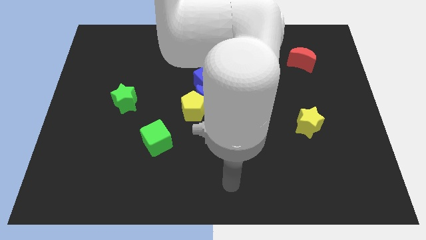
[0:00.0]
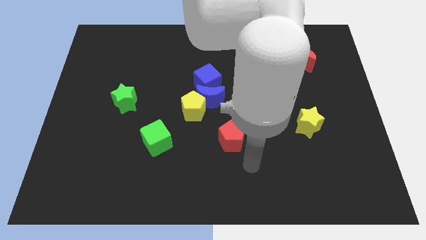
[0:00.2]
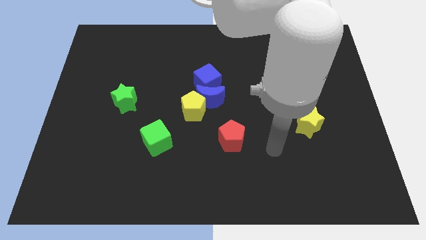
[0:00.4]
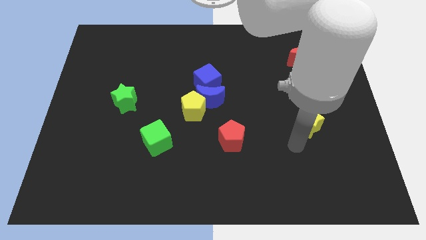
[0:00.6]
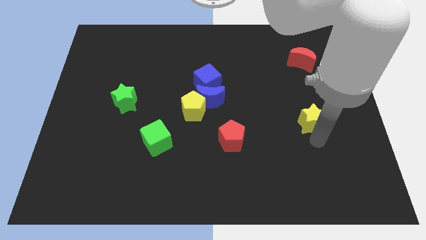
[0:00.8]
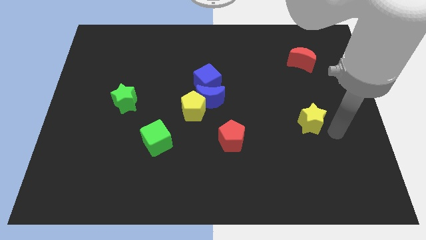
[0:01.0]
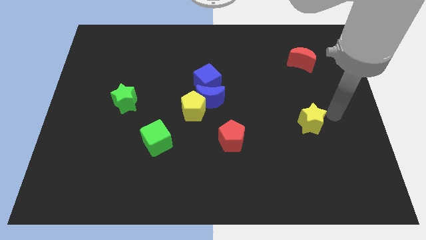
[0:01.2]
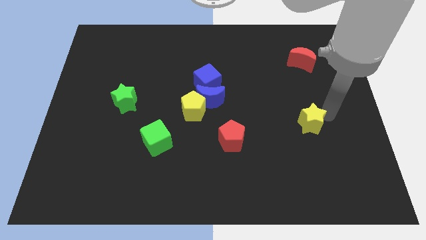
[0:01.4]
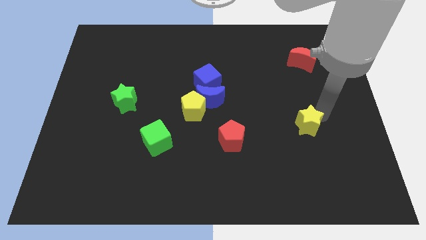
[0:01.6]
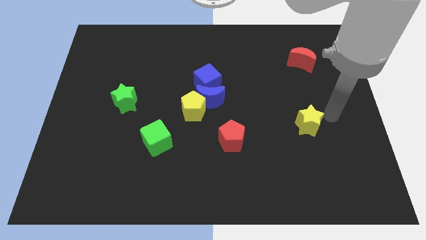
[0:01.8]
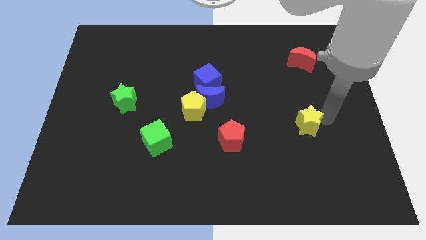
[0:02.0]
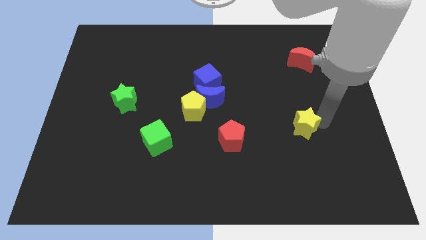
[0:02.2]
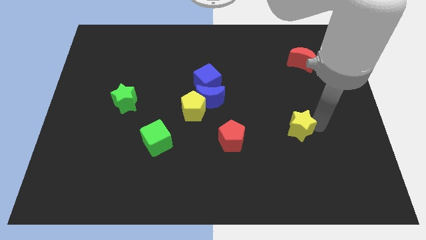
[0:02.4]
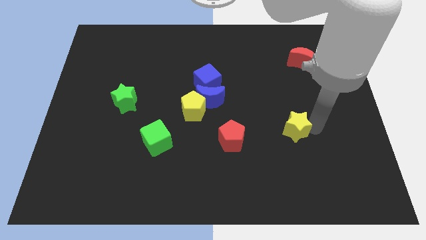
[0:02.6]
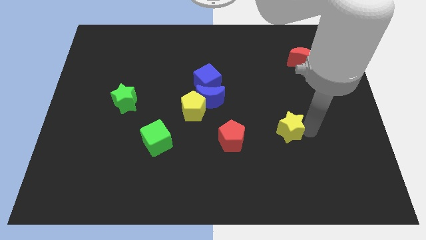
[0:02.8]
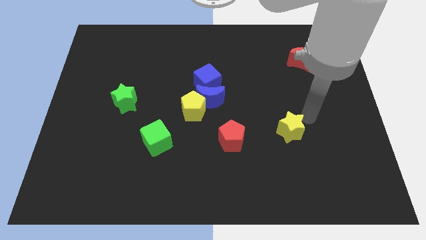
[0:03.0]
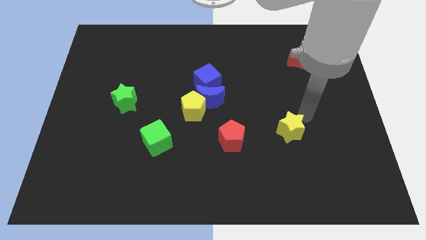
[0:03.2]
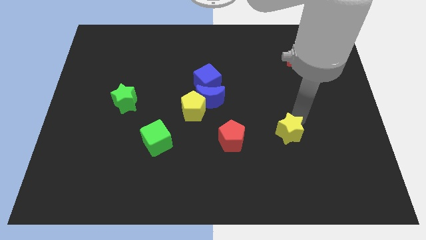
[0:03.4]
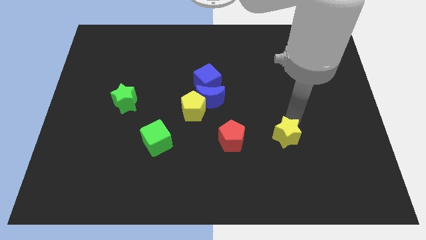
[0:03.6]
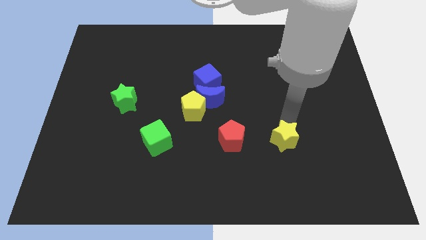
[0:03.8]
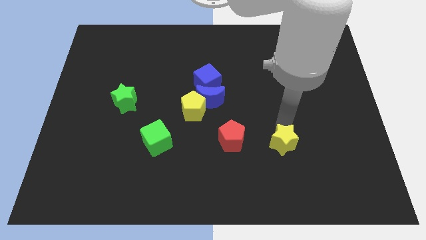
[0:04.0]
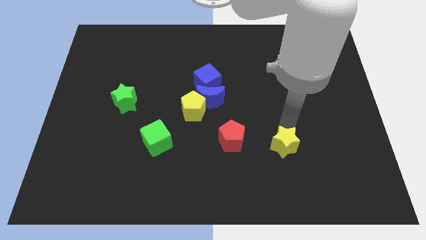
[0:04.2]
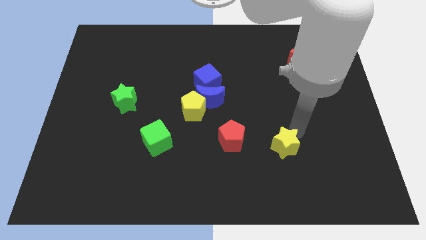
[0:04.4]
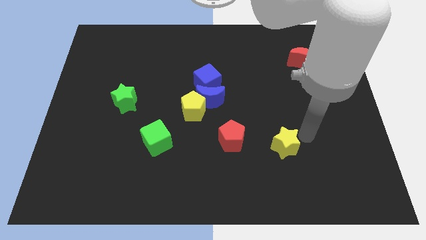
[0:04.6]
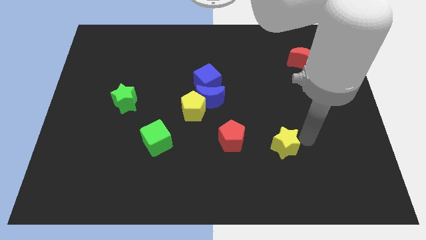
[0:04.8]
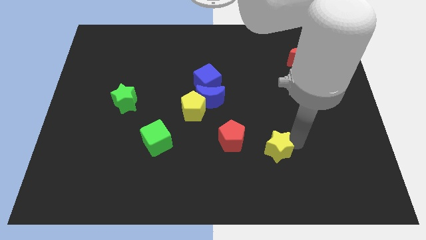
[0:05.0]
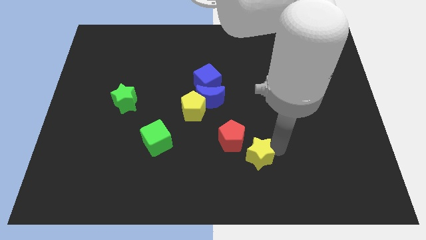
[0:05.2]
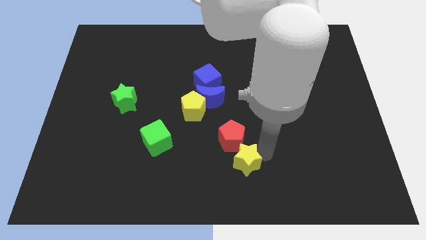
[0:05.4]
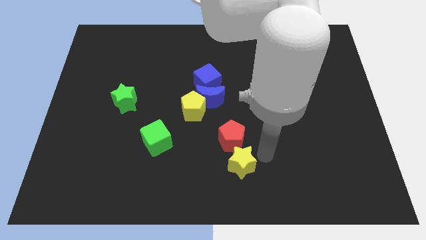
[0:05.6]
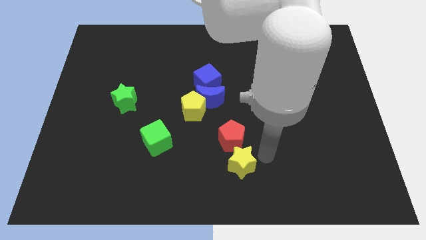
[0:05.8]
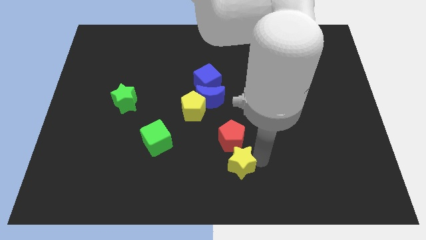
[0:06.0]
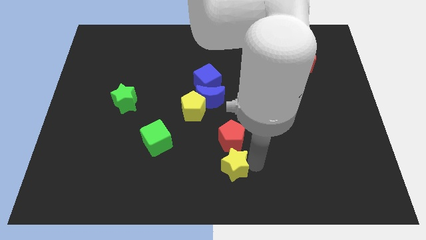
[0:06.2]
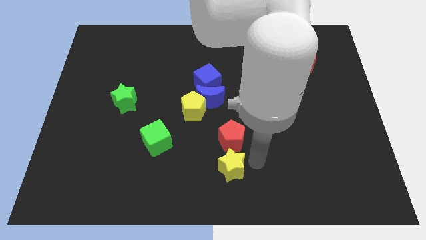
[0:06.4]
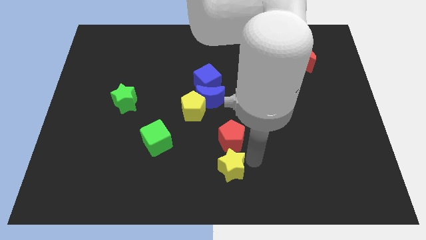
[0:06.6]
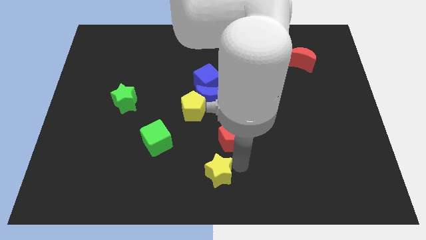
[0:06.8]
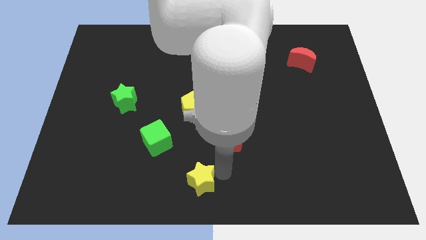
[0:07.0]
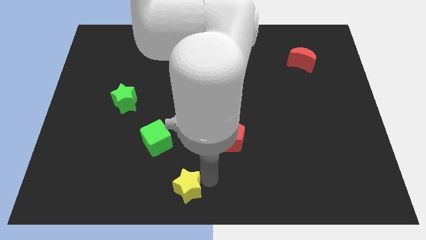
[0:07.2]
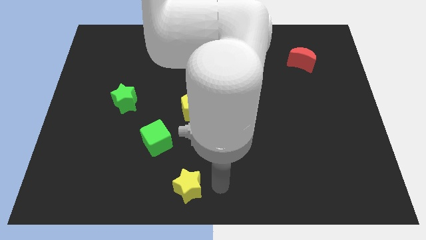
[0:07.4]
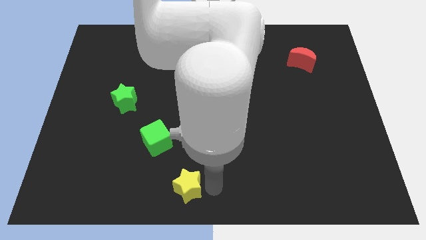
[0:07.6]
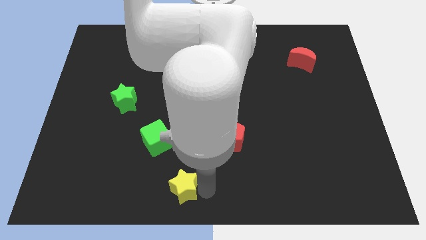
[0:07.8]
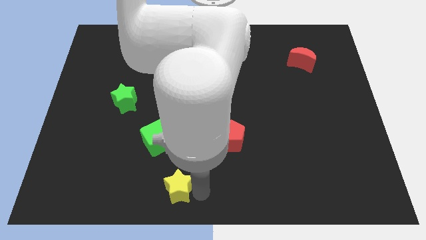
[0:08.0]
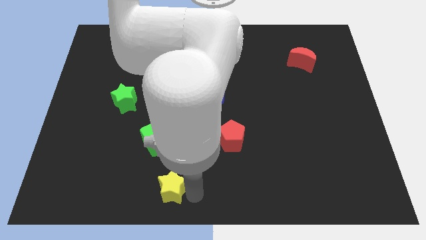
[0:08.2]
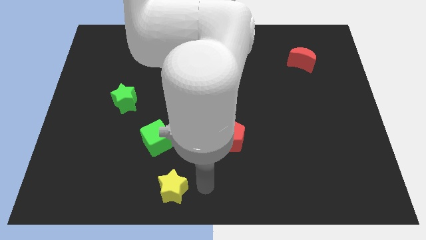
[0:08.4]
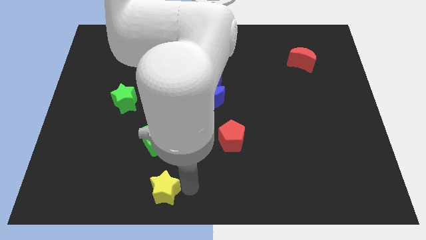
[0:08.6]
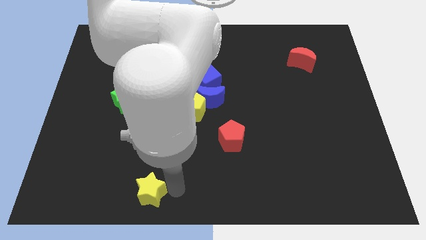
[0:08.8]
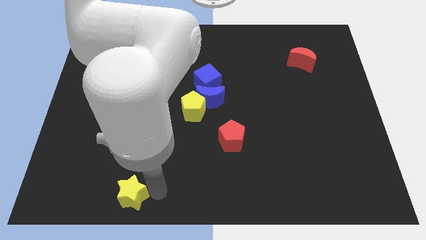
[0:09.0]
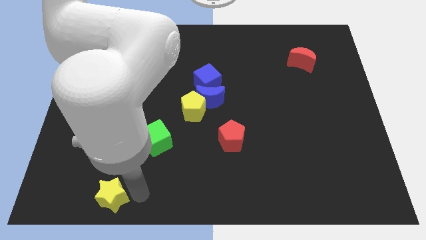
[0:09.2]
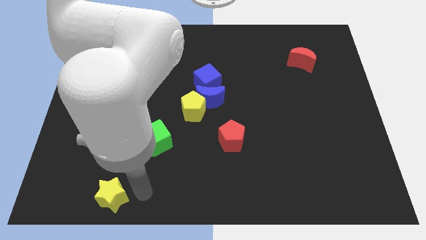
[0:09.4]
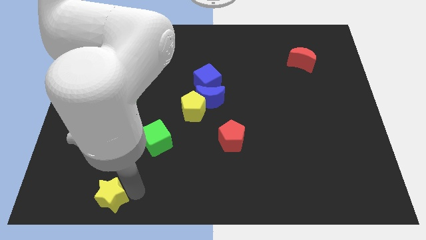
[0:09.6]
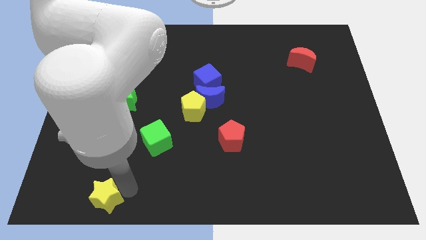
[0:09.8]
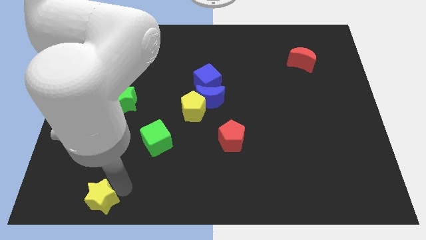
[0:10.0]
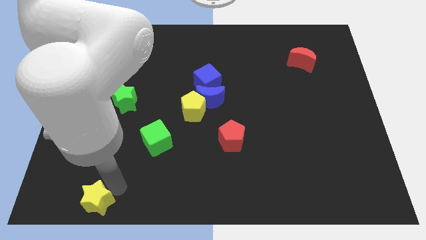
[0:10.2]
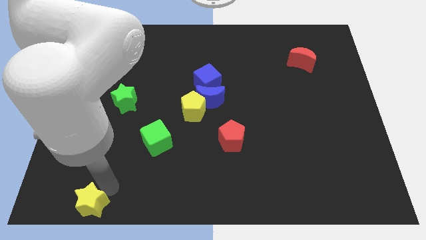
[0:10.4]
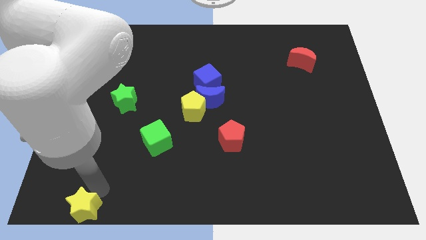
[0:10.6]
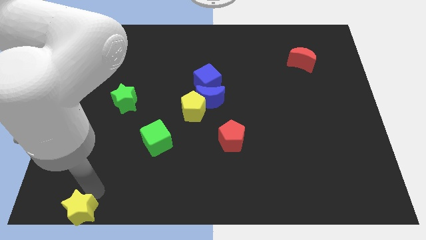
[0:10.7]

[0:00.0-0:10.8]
push the yellow star to the lower left corner

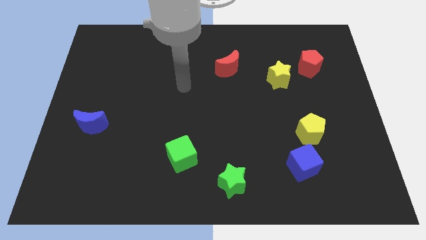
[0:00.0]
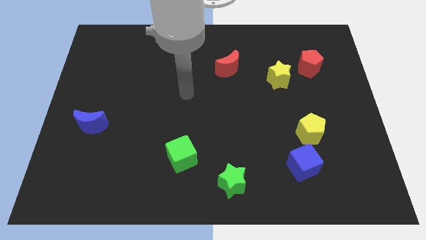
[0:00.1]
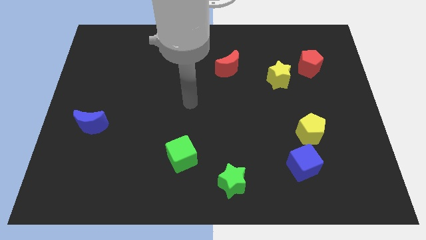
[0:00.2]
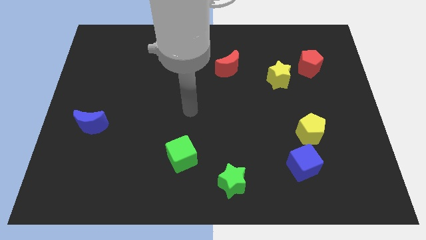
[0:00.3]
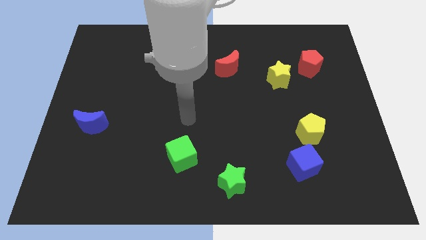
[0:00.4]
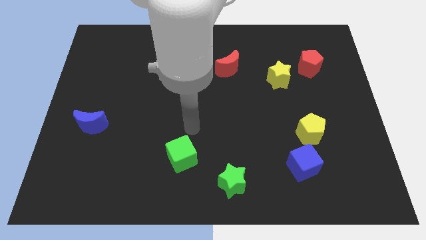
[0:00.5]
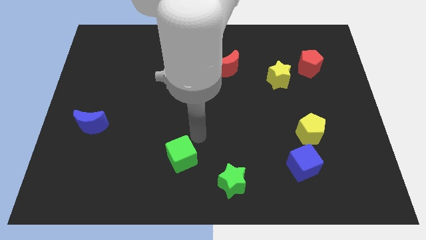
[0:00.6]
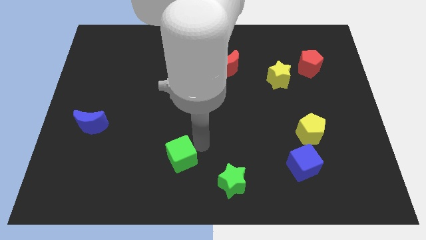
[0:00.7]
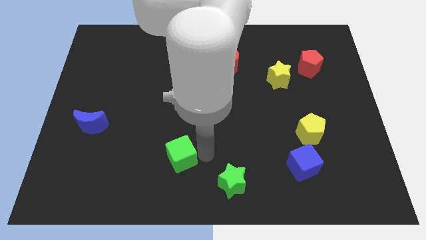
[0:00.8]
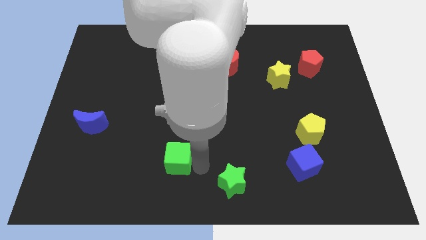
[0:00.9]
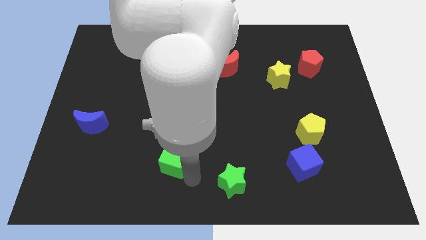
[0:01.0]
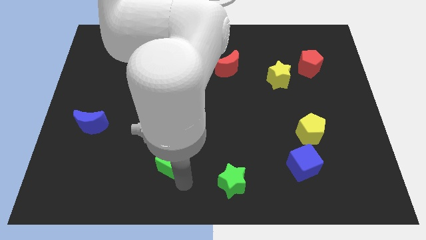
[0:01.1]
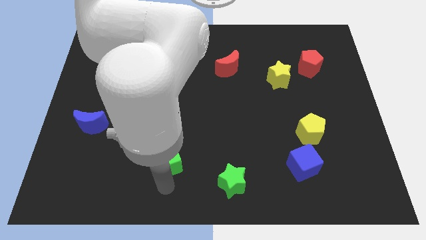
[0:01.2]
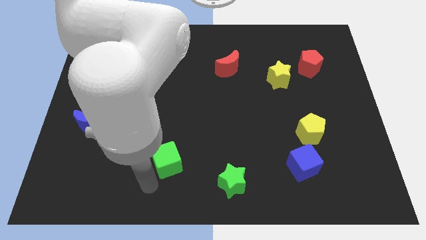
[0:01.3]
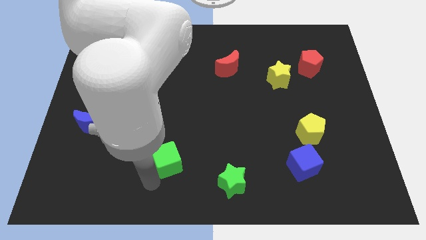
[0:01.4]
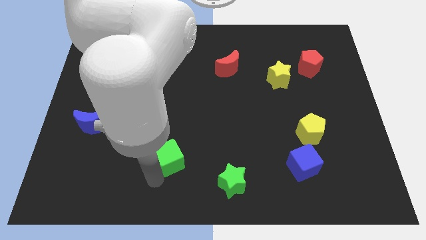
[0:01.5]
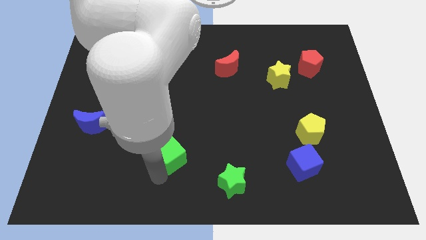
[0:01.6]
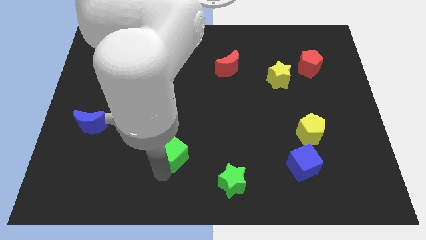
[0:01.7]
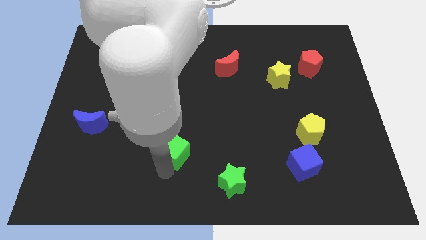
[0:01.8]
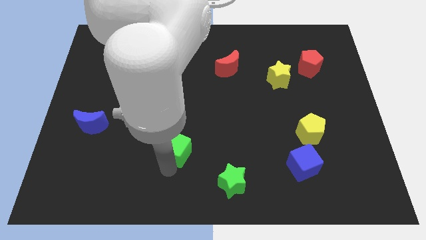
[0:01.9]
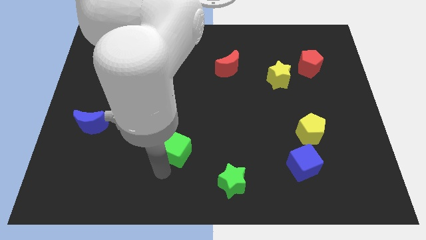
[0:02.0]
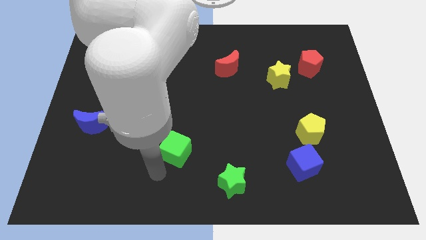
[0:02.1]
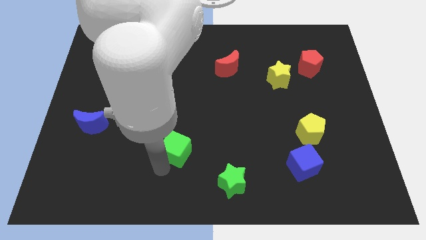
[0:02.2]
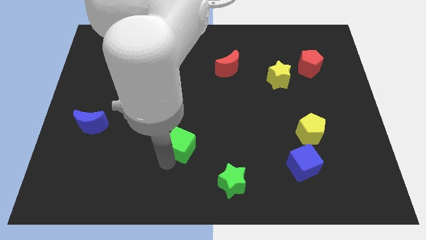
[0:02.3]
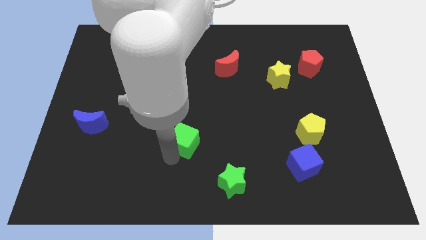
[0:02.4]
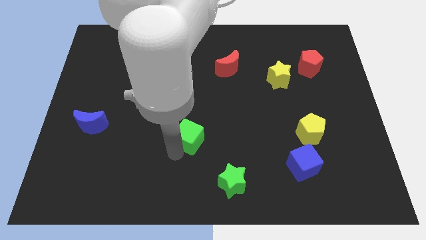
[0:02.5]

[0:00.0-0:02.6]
push the green cube to the middle
